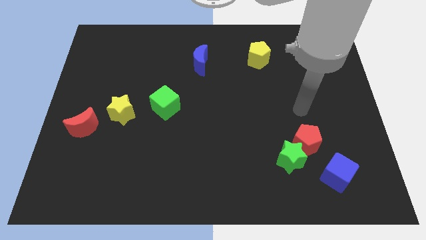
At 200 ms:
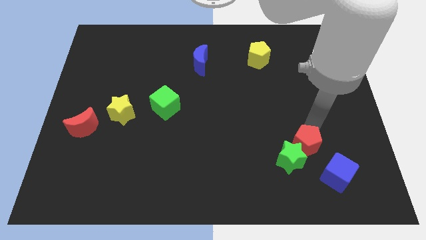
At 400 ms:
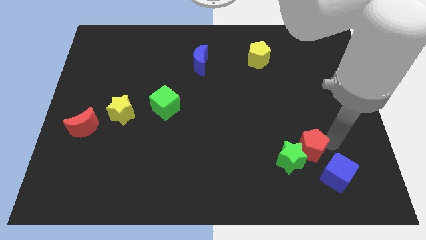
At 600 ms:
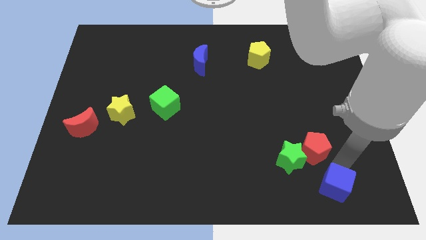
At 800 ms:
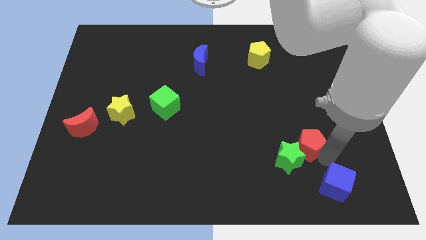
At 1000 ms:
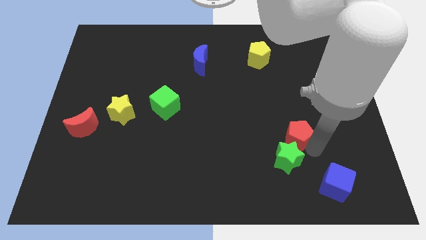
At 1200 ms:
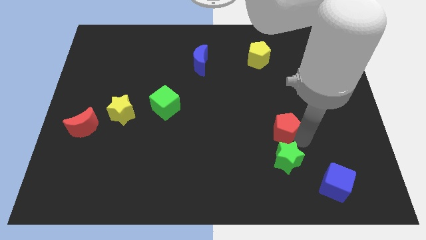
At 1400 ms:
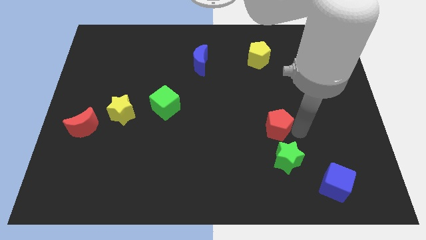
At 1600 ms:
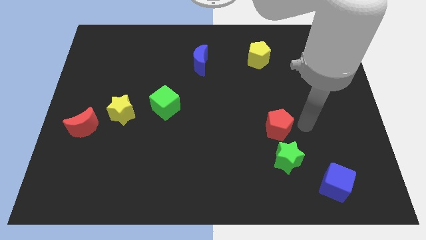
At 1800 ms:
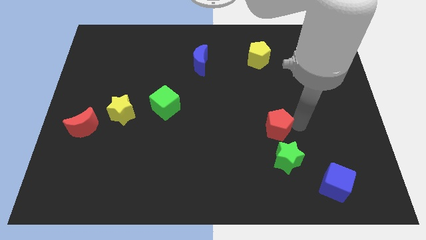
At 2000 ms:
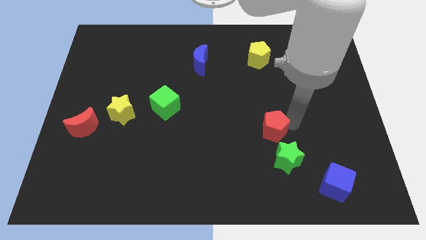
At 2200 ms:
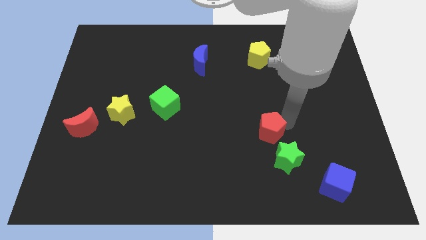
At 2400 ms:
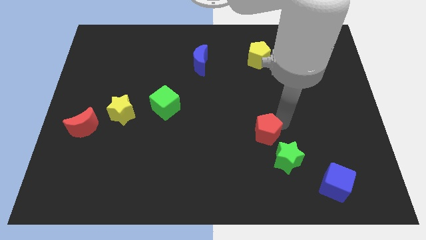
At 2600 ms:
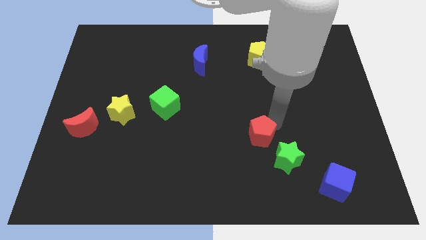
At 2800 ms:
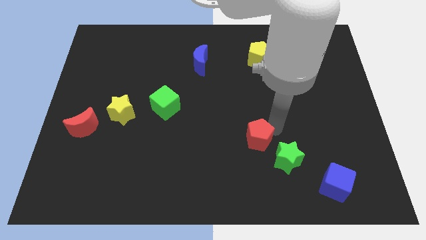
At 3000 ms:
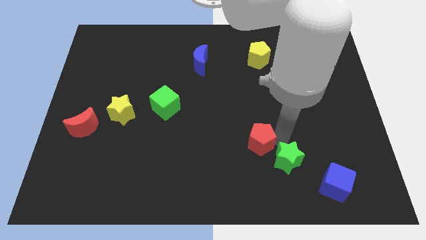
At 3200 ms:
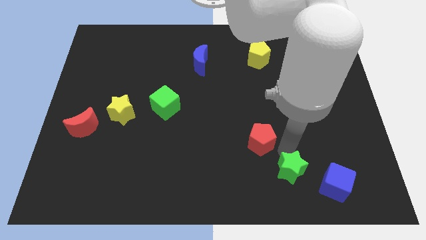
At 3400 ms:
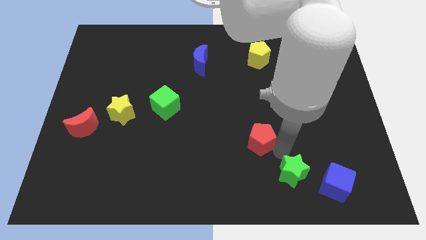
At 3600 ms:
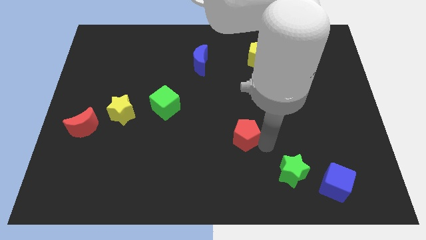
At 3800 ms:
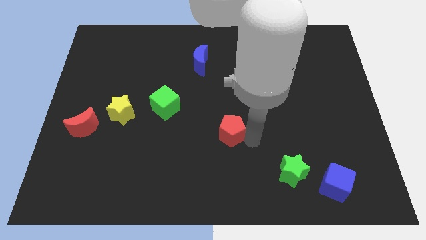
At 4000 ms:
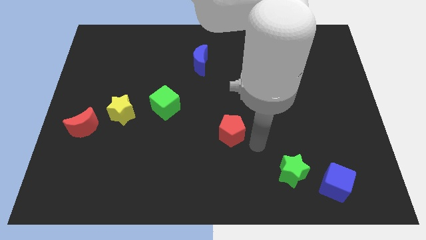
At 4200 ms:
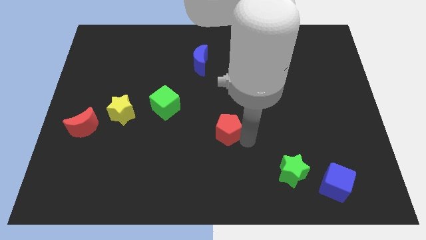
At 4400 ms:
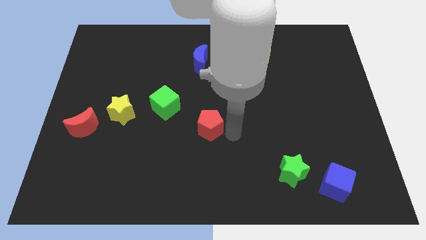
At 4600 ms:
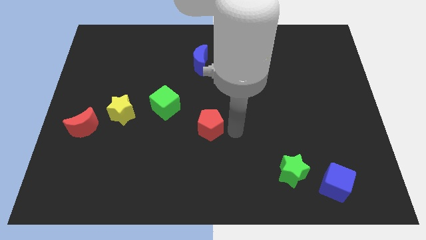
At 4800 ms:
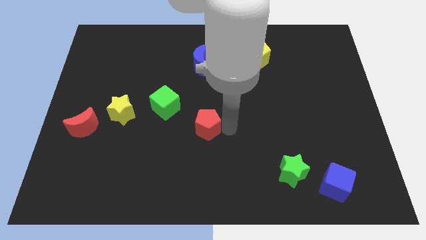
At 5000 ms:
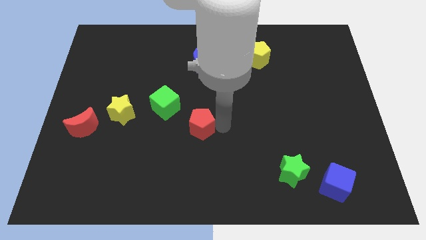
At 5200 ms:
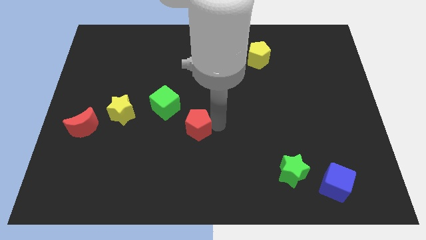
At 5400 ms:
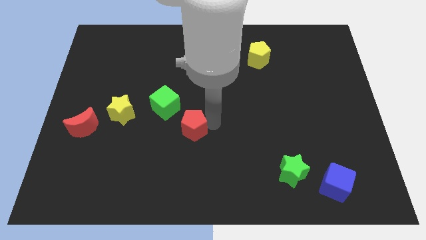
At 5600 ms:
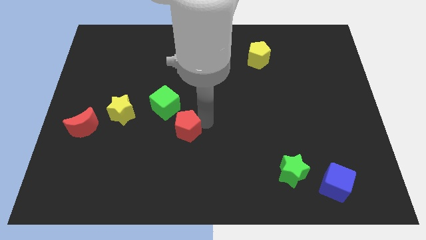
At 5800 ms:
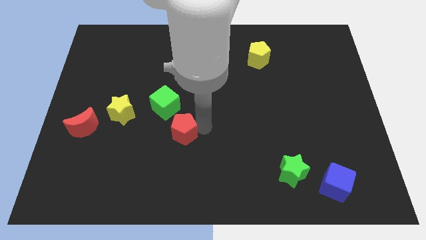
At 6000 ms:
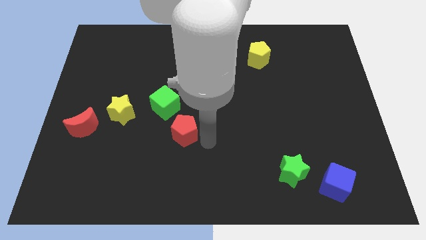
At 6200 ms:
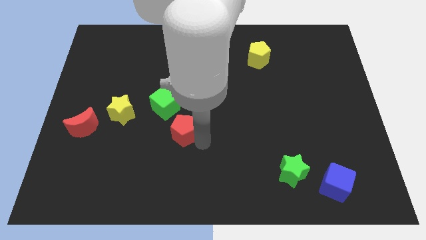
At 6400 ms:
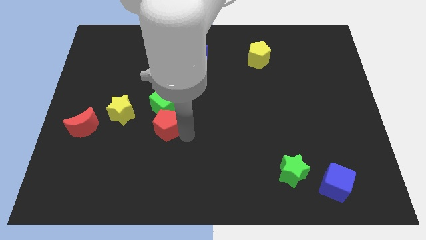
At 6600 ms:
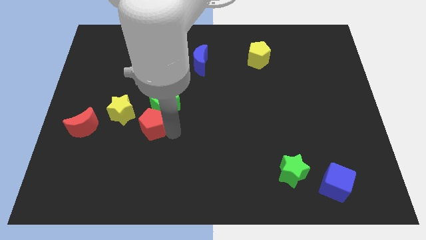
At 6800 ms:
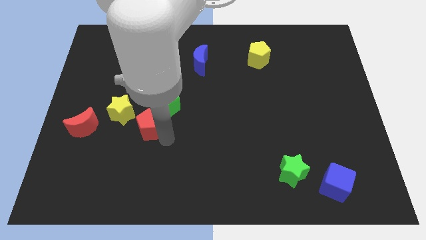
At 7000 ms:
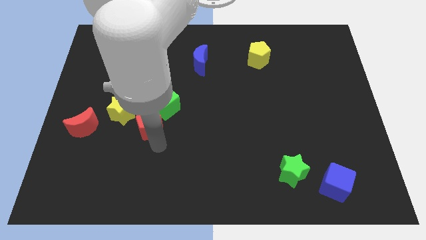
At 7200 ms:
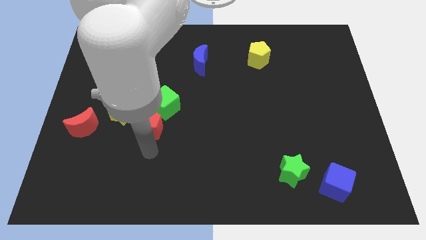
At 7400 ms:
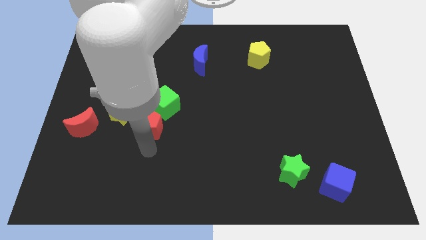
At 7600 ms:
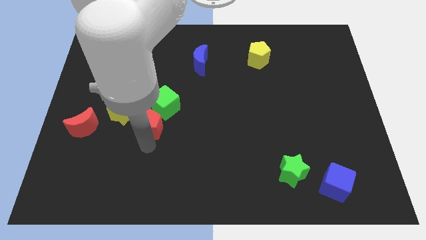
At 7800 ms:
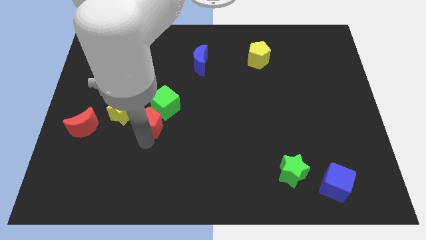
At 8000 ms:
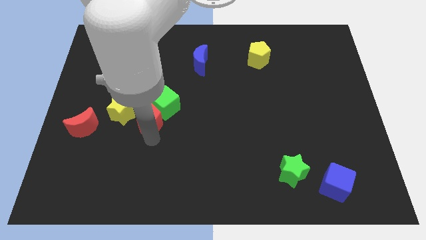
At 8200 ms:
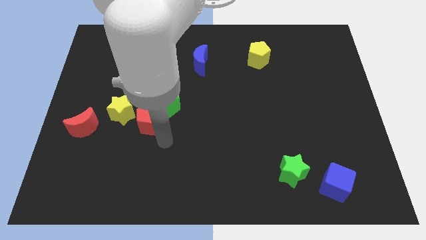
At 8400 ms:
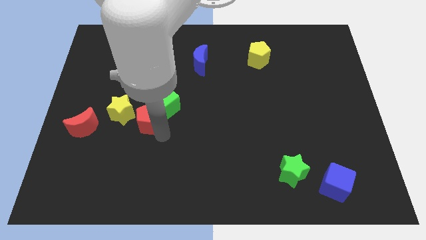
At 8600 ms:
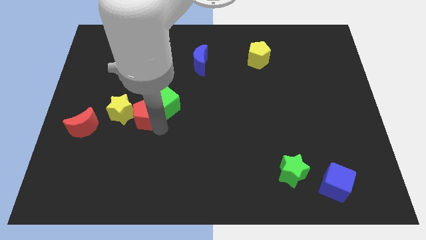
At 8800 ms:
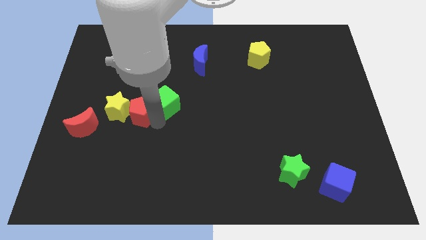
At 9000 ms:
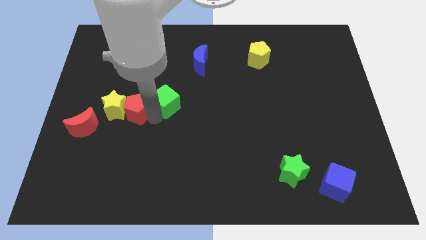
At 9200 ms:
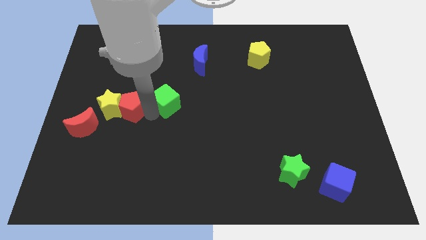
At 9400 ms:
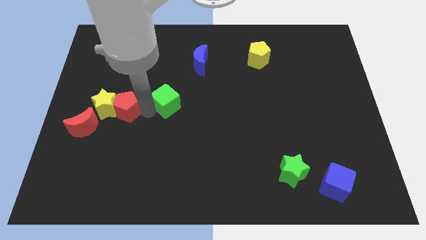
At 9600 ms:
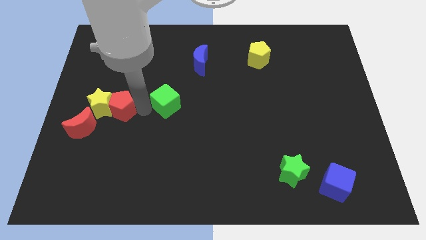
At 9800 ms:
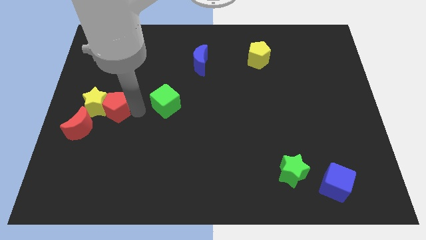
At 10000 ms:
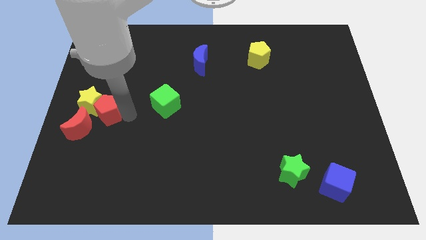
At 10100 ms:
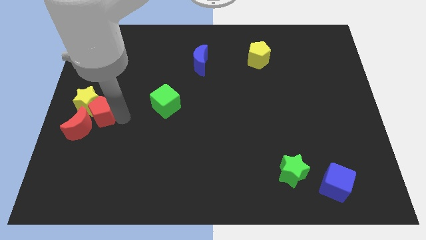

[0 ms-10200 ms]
push the red pentagon to the left side

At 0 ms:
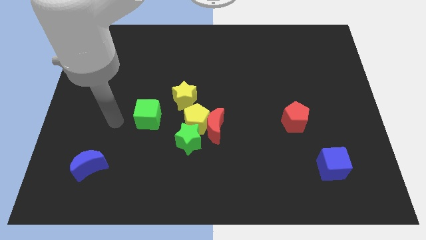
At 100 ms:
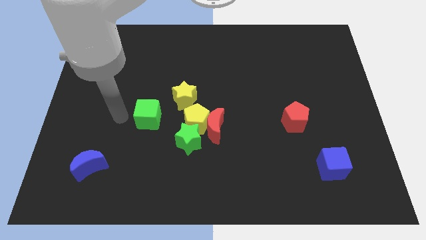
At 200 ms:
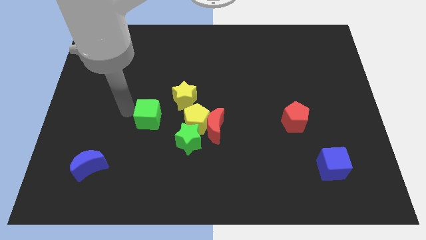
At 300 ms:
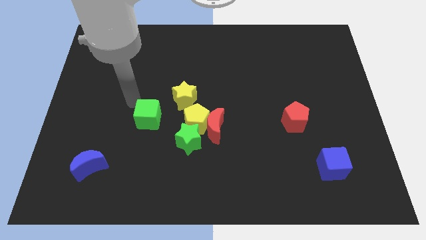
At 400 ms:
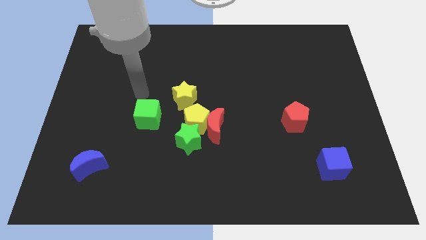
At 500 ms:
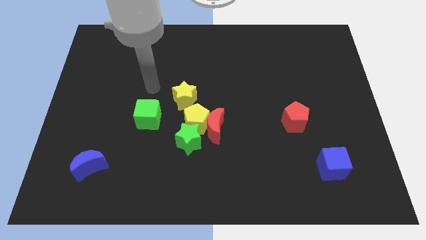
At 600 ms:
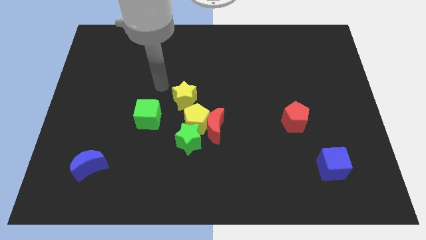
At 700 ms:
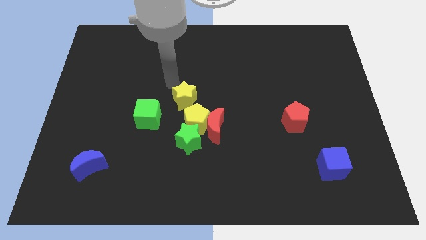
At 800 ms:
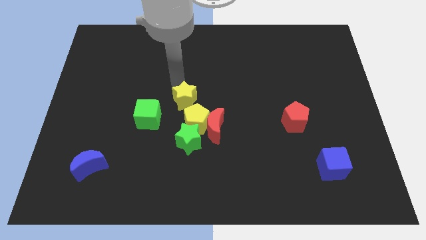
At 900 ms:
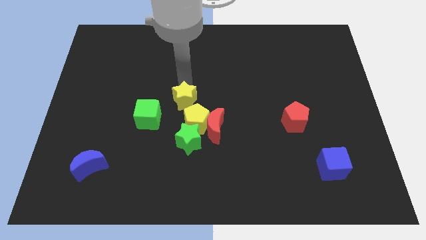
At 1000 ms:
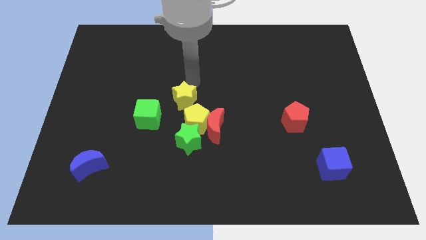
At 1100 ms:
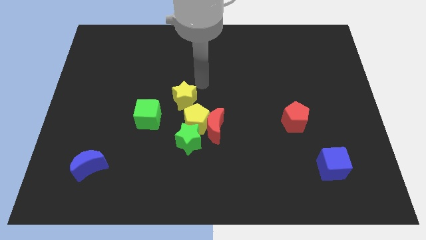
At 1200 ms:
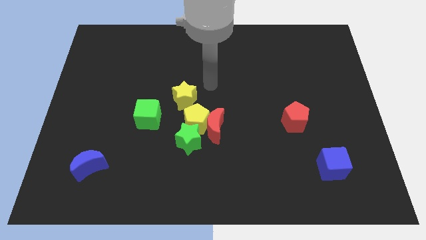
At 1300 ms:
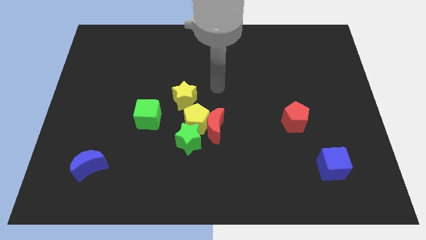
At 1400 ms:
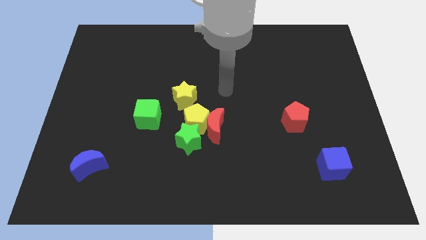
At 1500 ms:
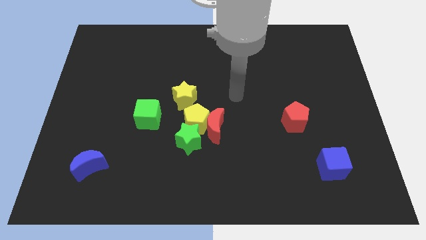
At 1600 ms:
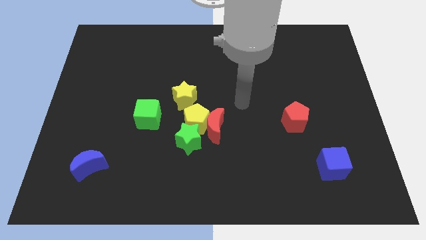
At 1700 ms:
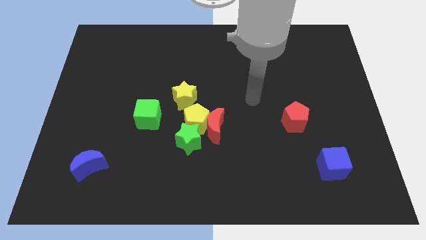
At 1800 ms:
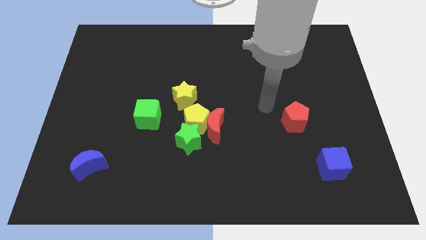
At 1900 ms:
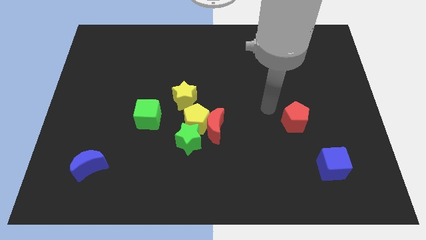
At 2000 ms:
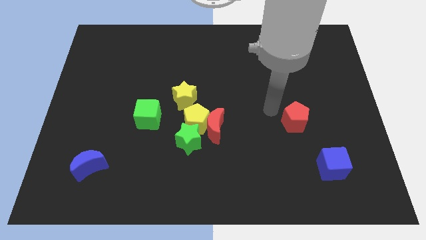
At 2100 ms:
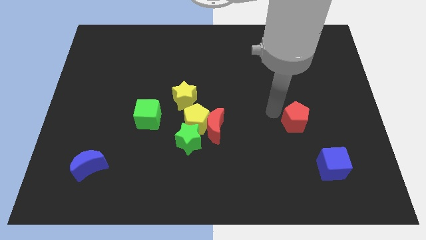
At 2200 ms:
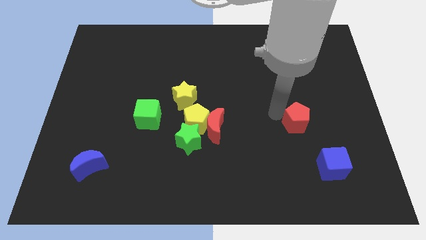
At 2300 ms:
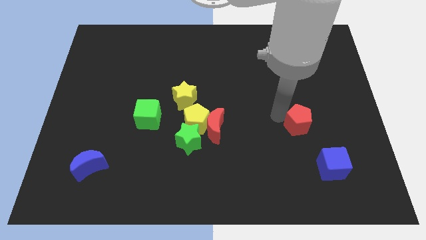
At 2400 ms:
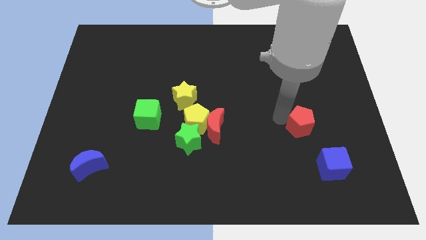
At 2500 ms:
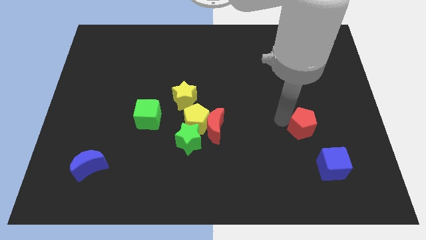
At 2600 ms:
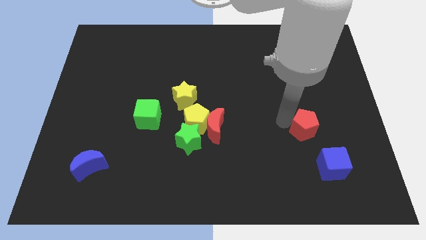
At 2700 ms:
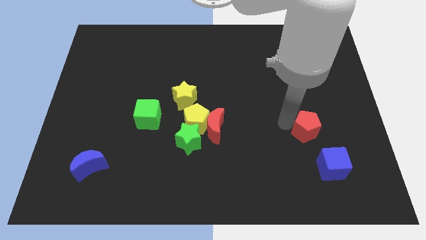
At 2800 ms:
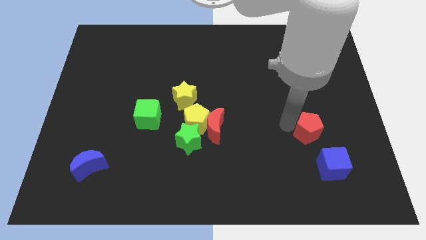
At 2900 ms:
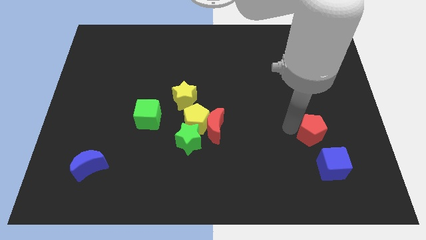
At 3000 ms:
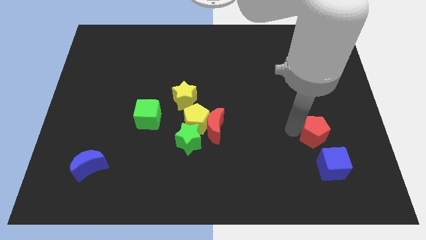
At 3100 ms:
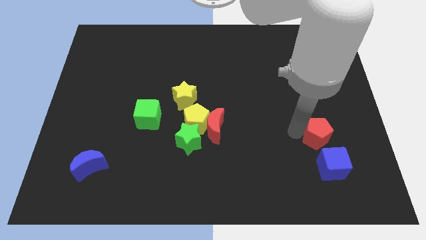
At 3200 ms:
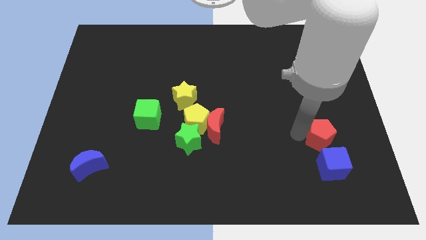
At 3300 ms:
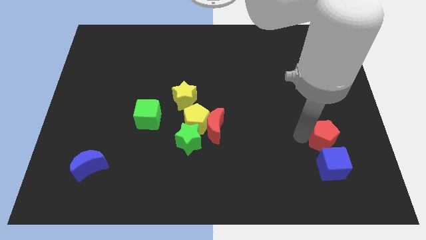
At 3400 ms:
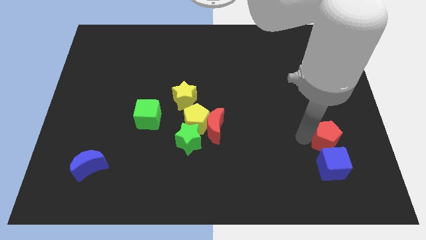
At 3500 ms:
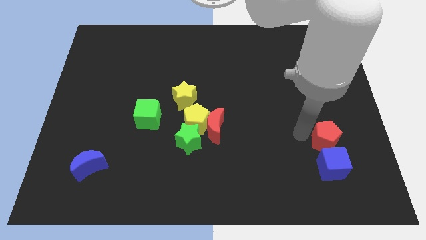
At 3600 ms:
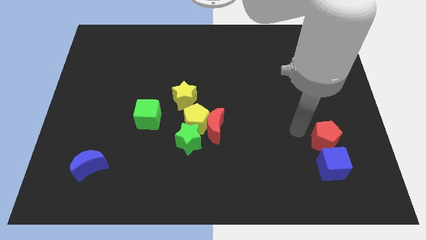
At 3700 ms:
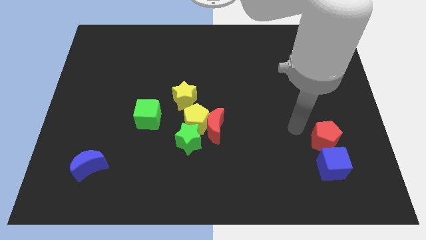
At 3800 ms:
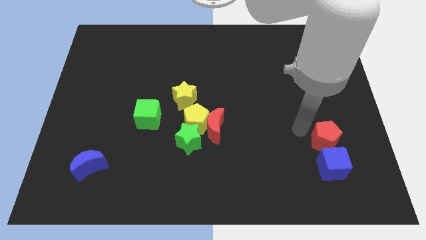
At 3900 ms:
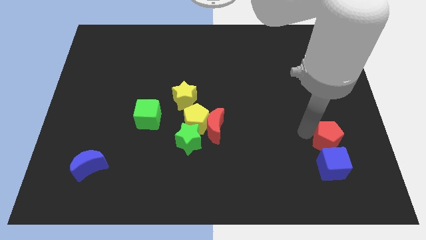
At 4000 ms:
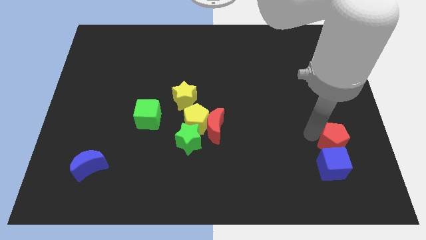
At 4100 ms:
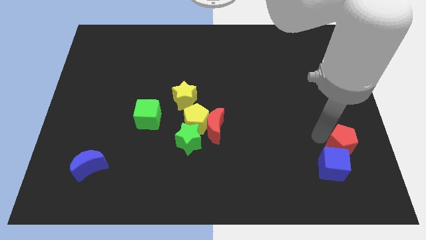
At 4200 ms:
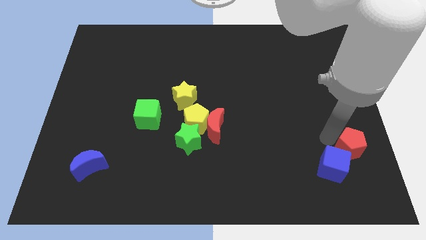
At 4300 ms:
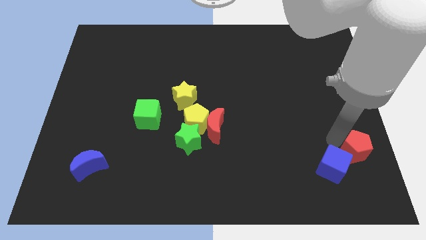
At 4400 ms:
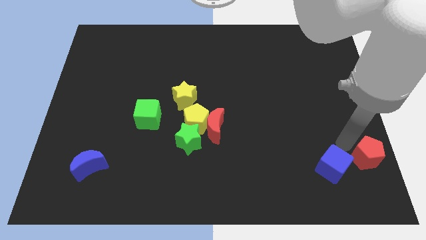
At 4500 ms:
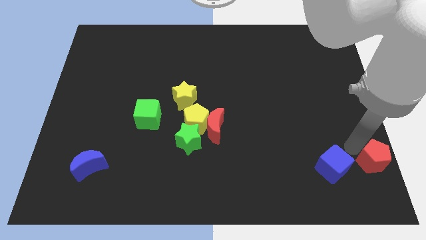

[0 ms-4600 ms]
slide the red pentagon to the bottom right
